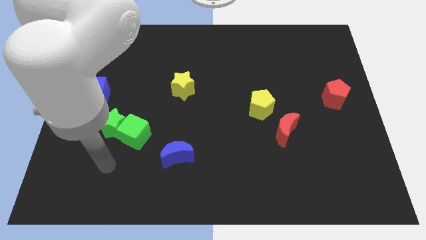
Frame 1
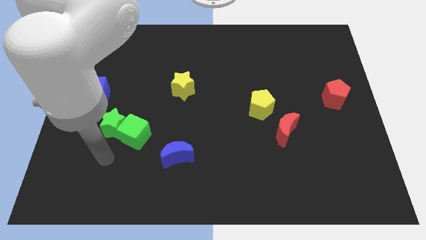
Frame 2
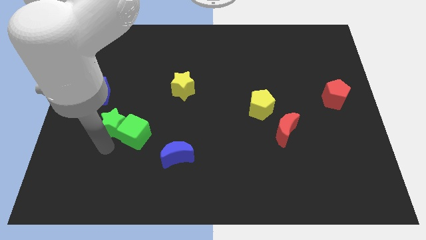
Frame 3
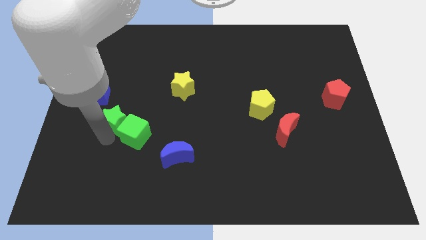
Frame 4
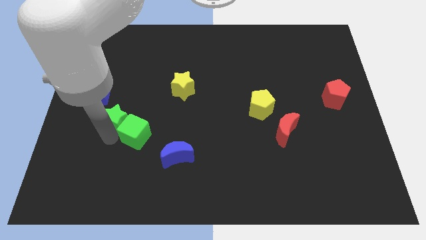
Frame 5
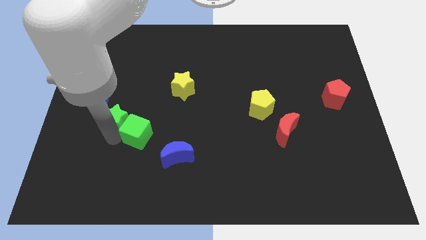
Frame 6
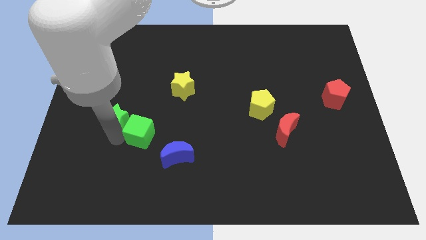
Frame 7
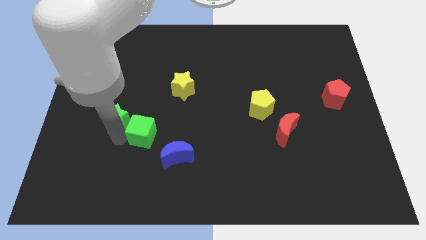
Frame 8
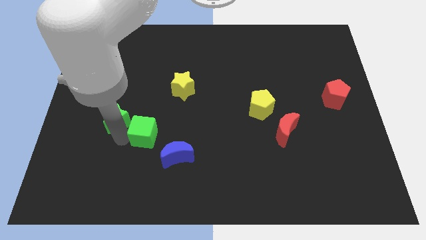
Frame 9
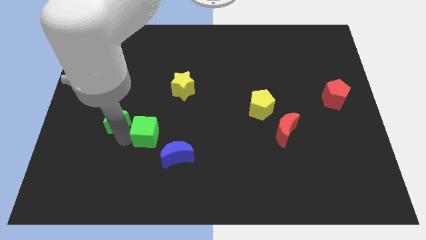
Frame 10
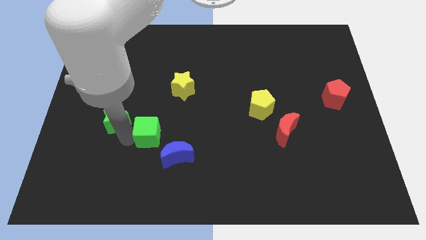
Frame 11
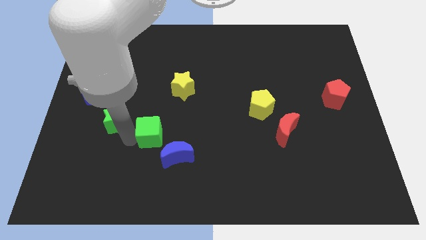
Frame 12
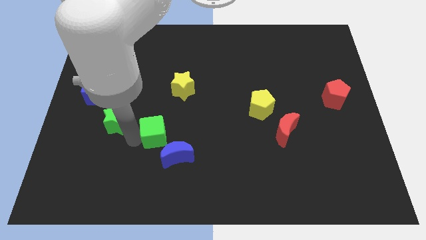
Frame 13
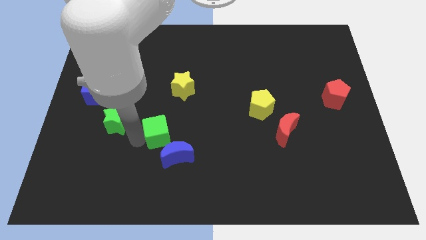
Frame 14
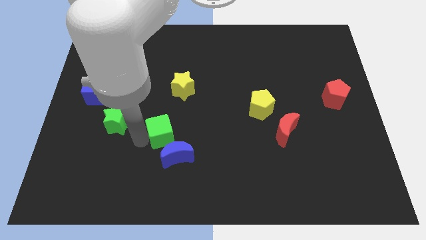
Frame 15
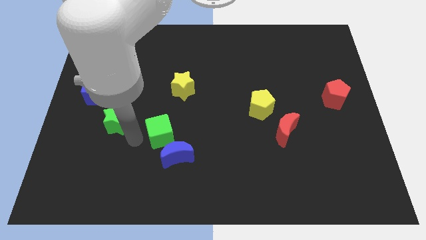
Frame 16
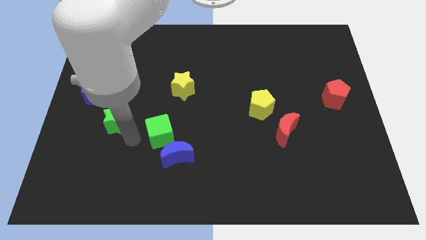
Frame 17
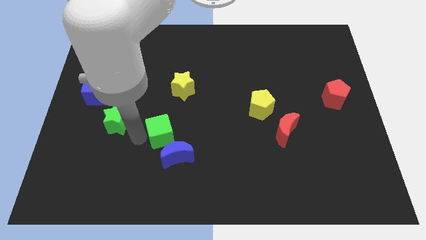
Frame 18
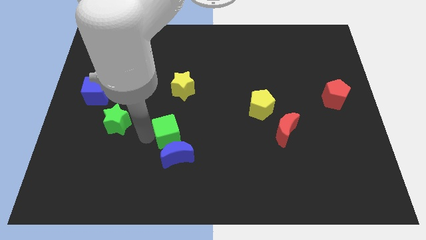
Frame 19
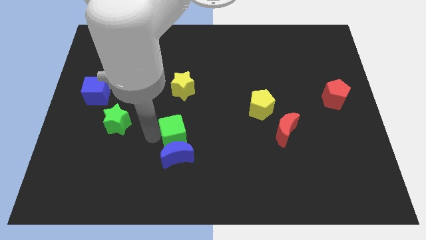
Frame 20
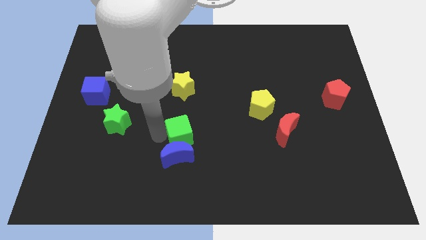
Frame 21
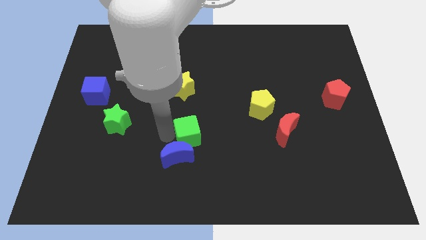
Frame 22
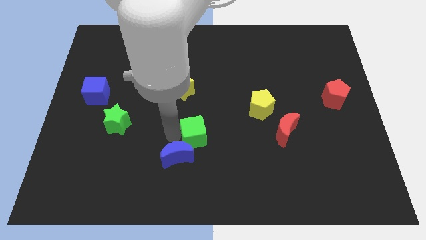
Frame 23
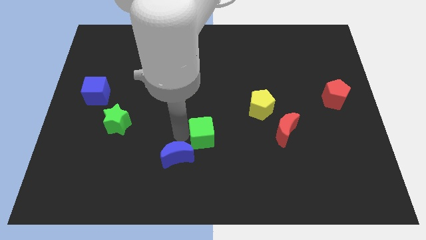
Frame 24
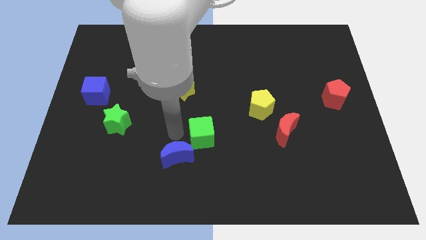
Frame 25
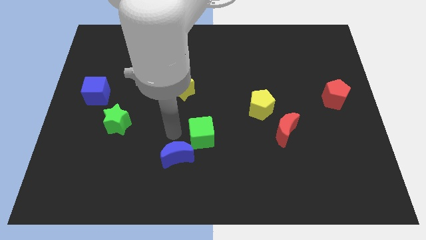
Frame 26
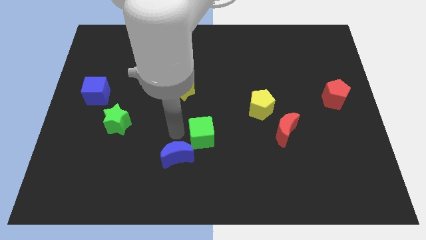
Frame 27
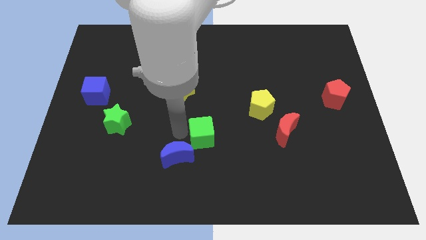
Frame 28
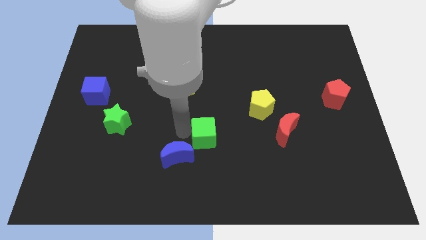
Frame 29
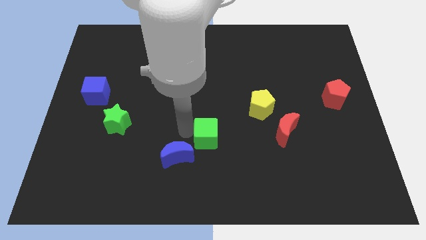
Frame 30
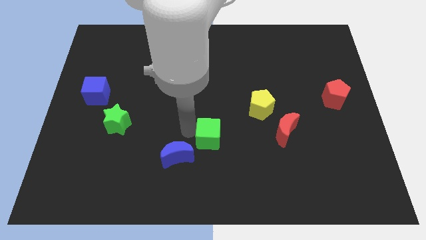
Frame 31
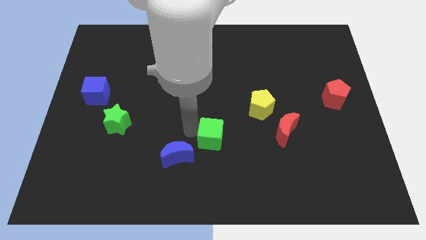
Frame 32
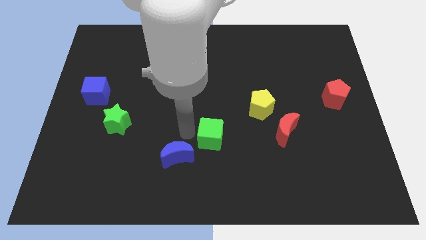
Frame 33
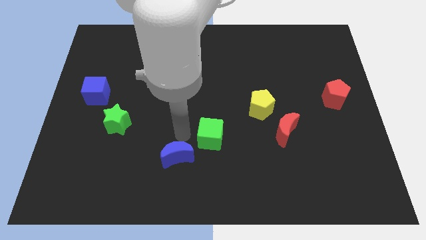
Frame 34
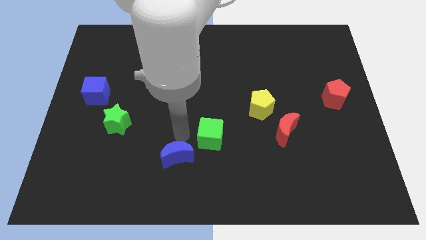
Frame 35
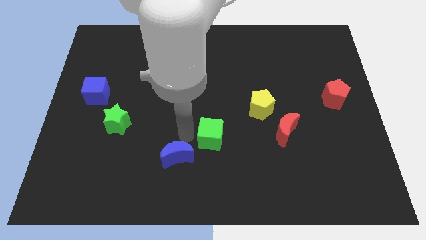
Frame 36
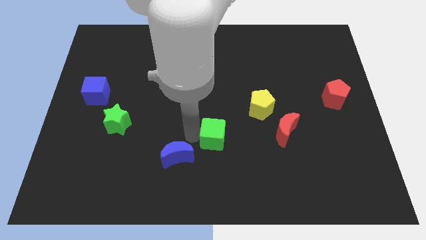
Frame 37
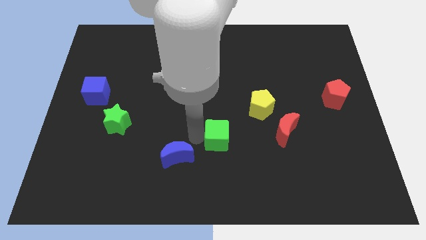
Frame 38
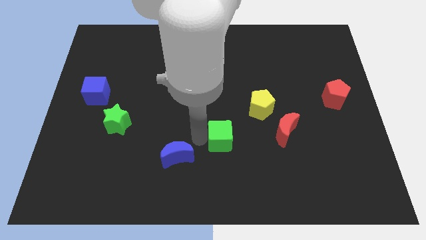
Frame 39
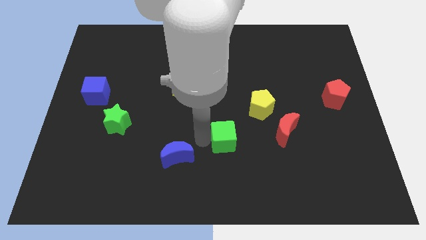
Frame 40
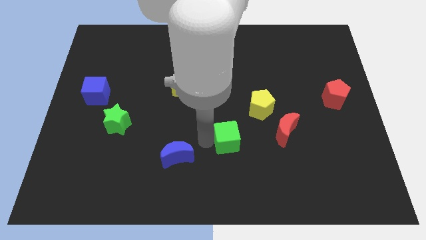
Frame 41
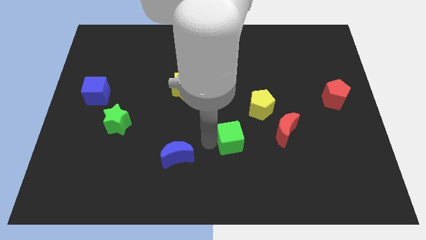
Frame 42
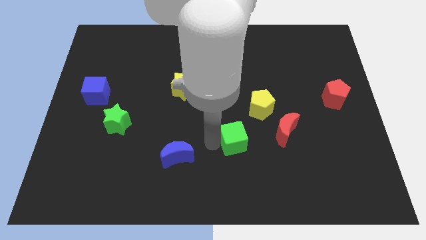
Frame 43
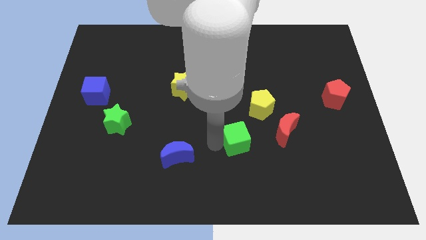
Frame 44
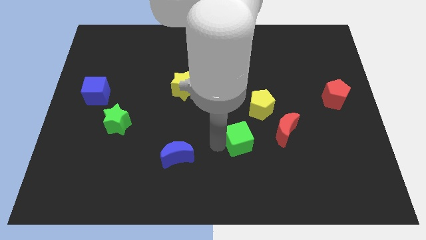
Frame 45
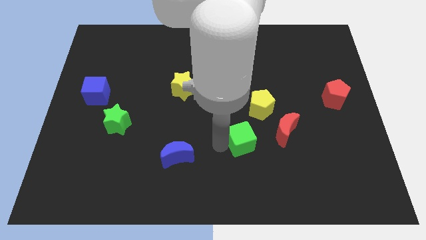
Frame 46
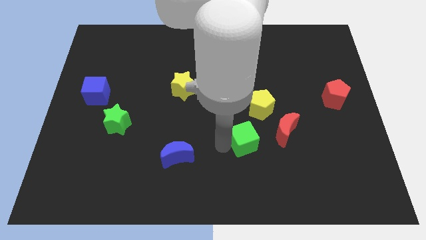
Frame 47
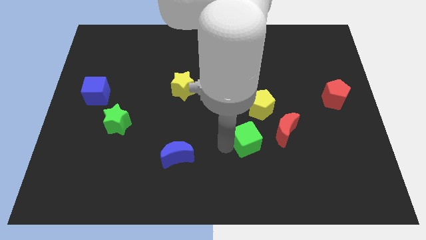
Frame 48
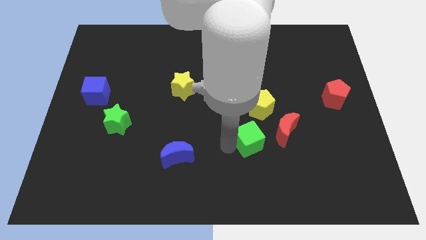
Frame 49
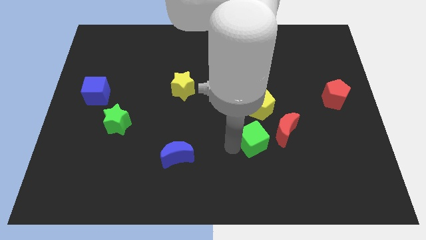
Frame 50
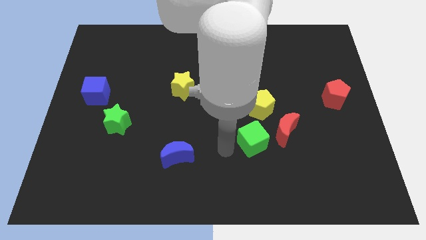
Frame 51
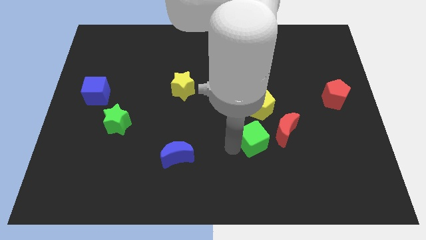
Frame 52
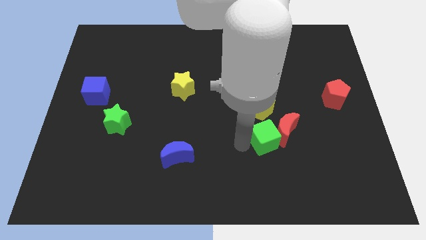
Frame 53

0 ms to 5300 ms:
push the green cube to the red moon

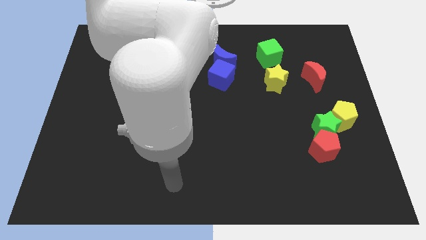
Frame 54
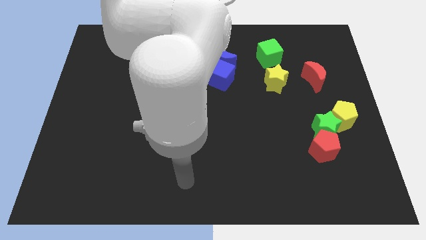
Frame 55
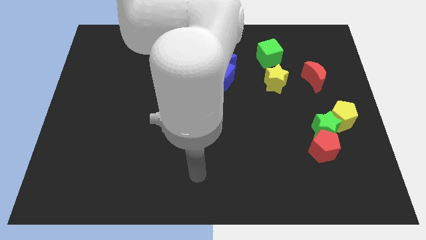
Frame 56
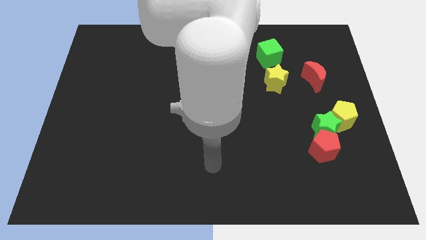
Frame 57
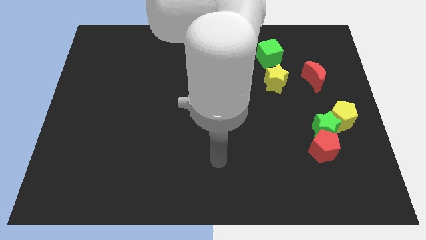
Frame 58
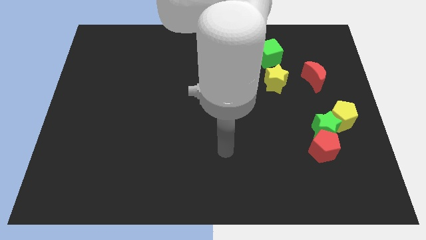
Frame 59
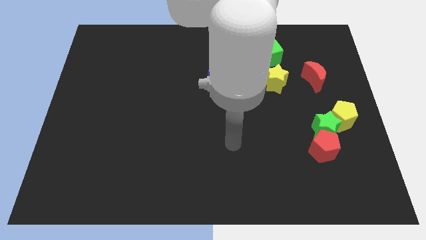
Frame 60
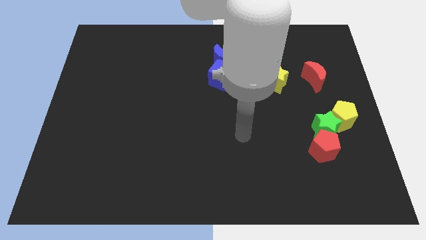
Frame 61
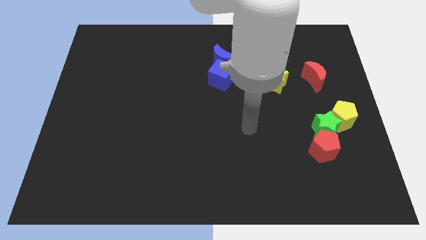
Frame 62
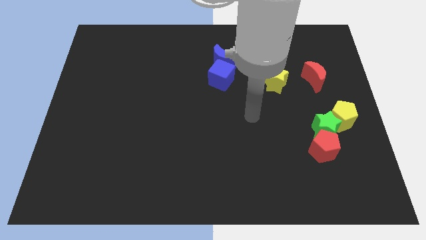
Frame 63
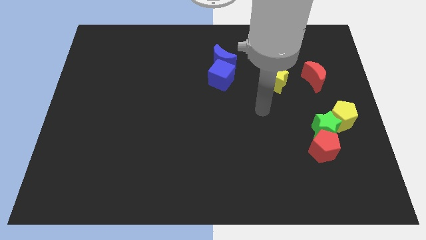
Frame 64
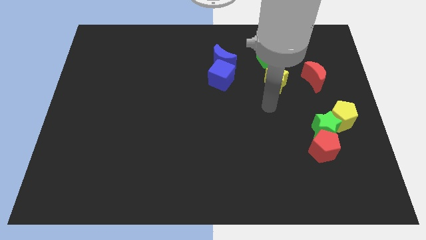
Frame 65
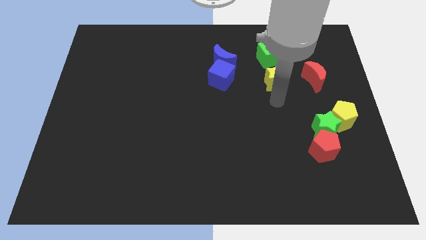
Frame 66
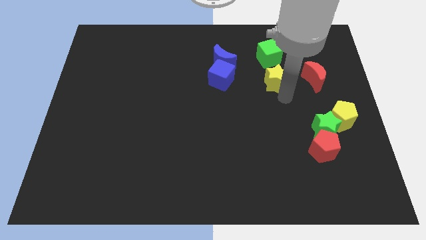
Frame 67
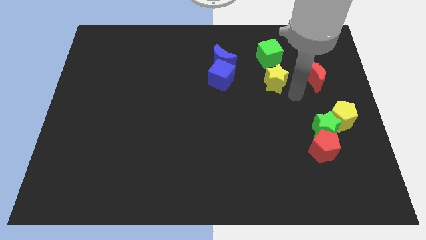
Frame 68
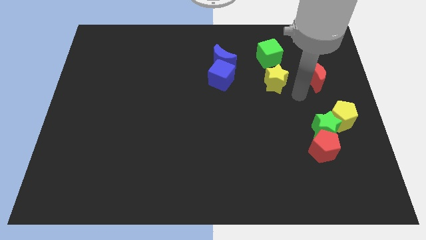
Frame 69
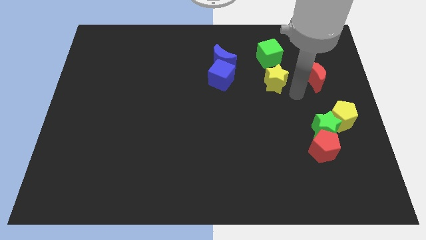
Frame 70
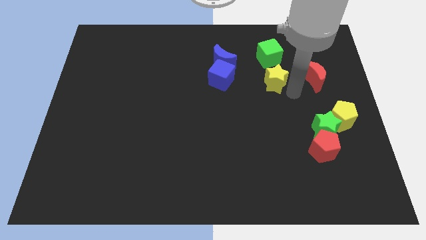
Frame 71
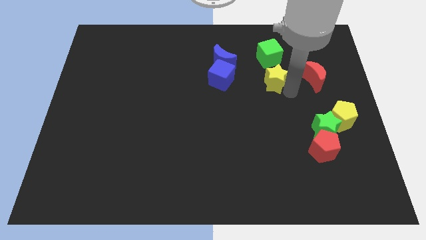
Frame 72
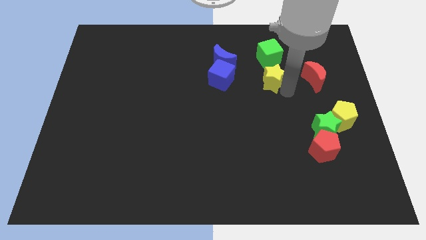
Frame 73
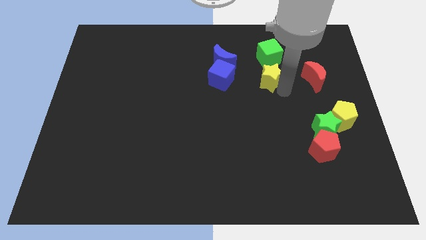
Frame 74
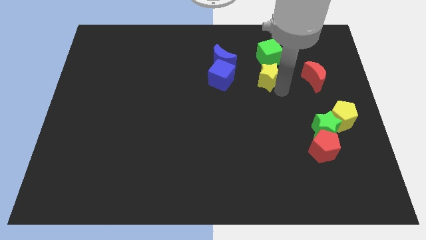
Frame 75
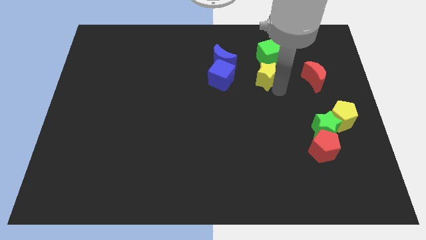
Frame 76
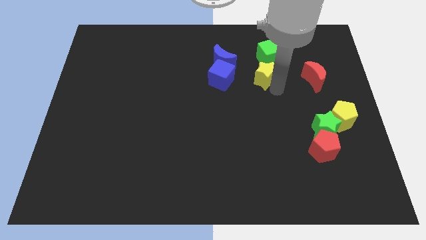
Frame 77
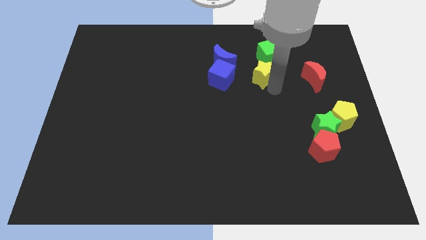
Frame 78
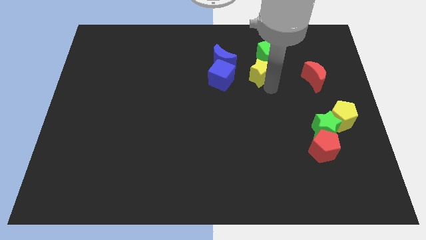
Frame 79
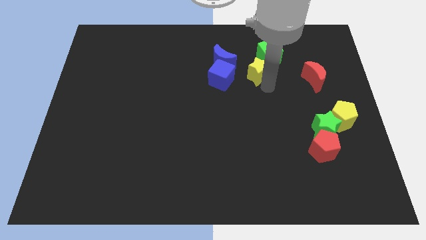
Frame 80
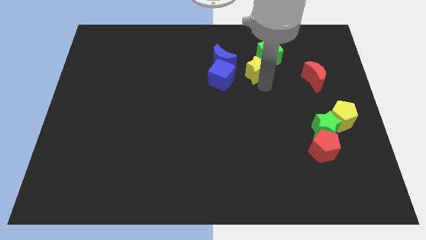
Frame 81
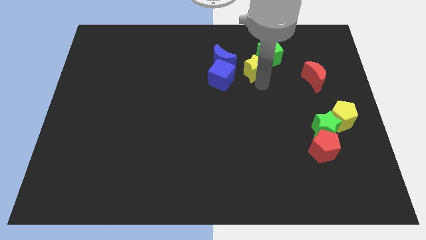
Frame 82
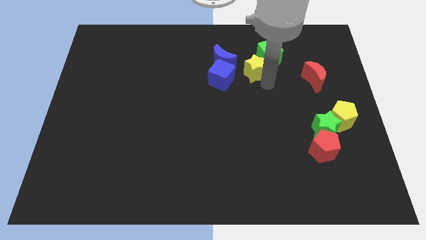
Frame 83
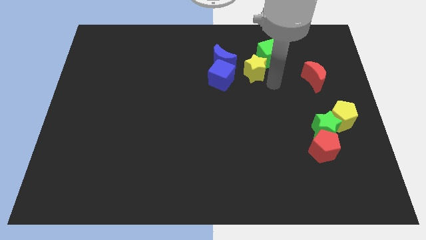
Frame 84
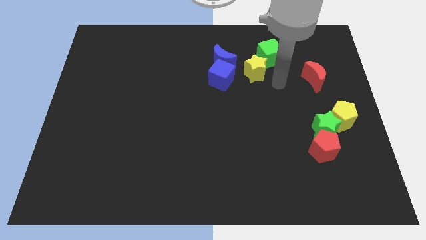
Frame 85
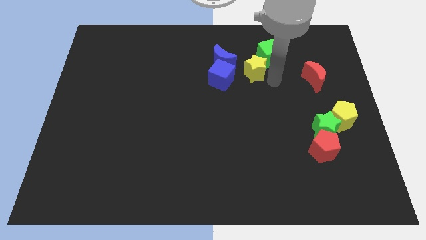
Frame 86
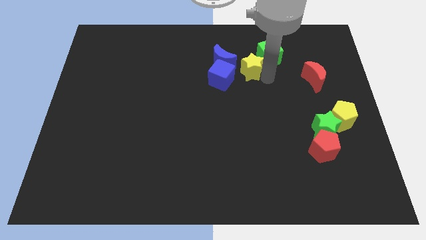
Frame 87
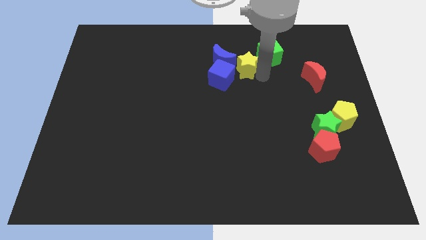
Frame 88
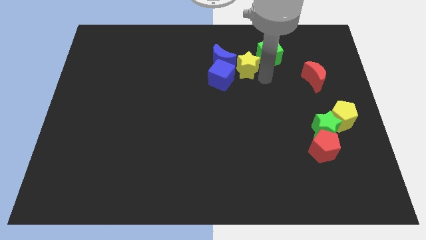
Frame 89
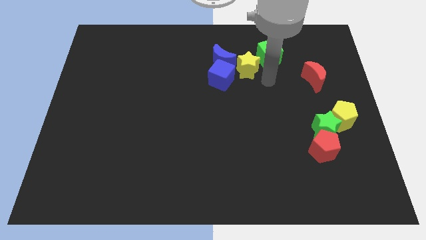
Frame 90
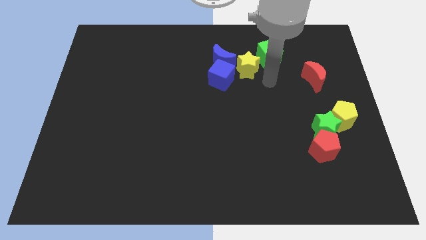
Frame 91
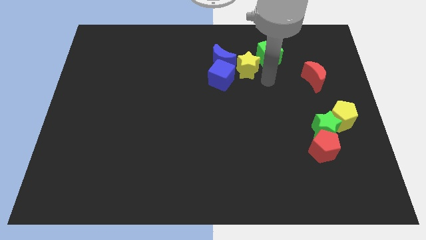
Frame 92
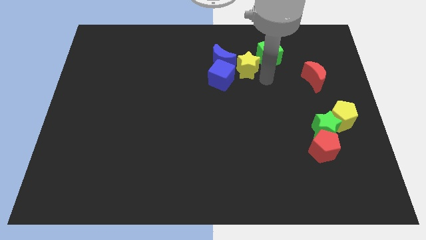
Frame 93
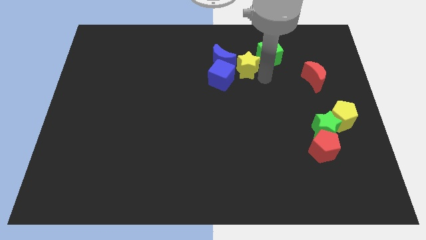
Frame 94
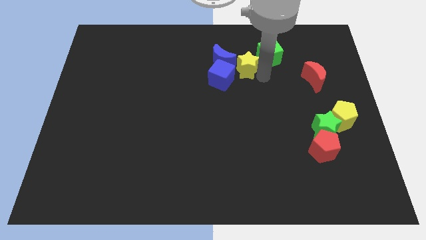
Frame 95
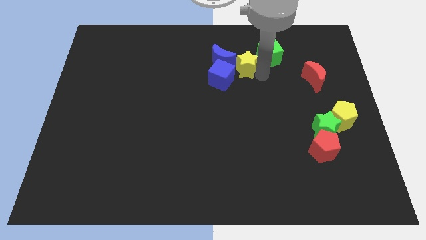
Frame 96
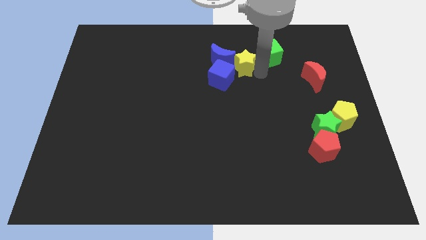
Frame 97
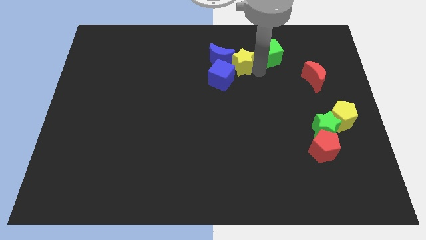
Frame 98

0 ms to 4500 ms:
put the yellow star towards the blue moon
